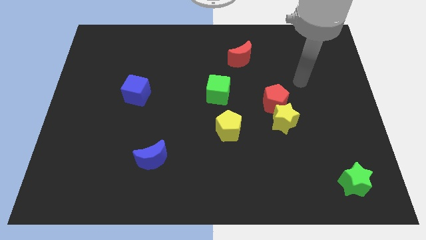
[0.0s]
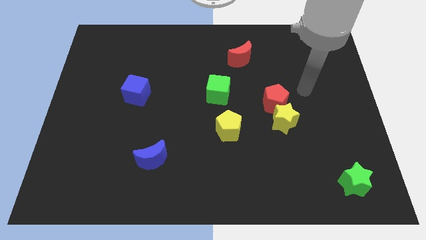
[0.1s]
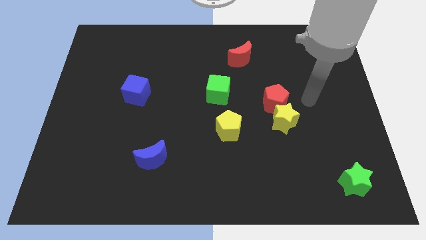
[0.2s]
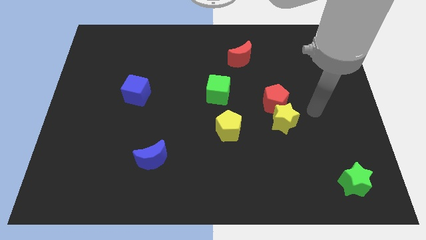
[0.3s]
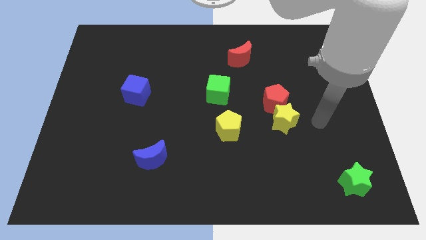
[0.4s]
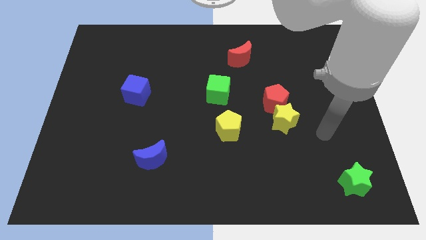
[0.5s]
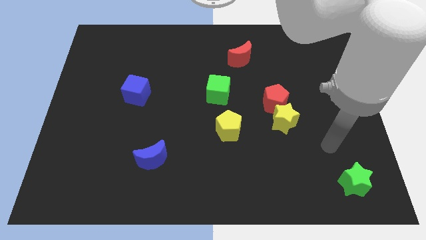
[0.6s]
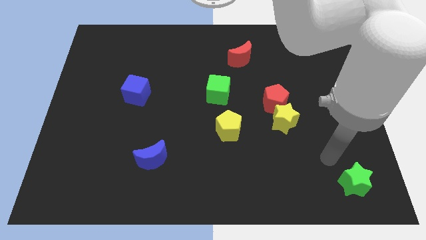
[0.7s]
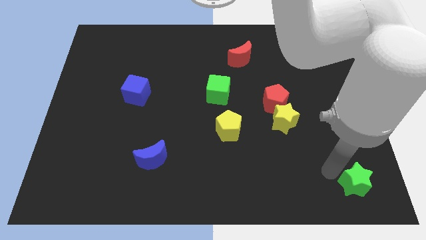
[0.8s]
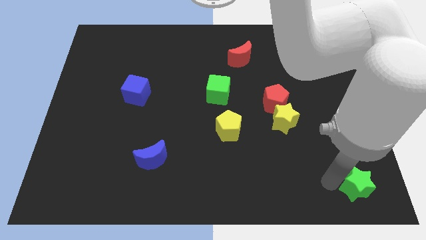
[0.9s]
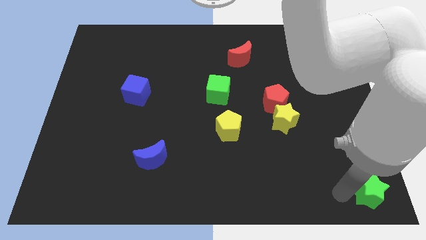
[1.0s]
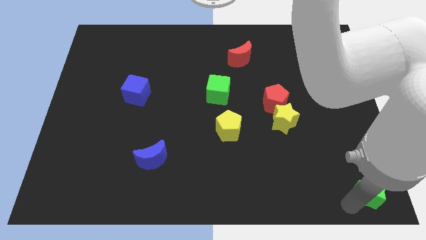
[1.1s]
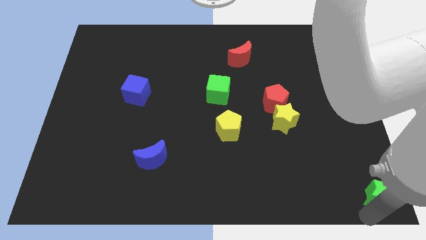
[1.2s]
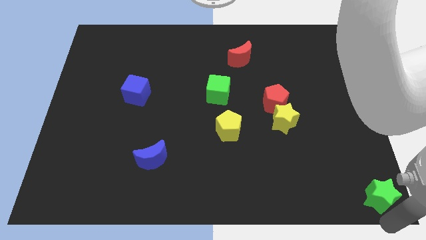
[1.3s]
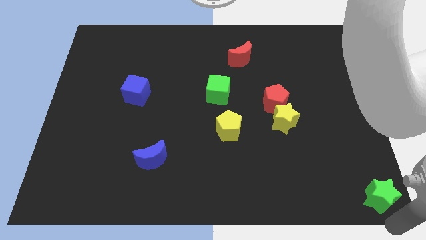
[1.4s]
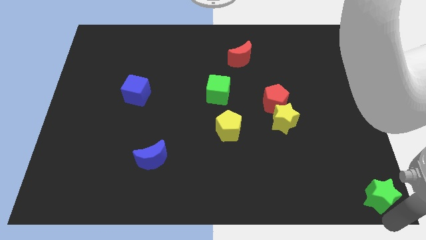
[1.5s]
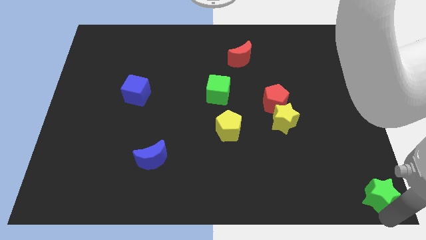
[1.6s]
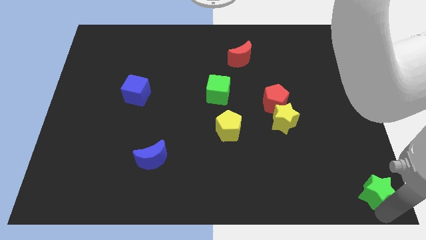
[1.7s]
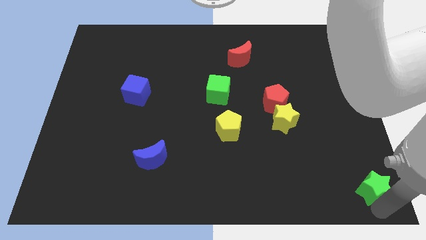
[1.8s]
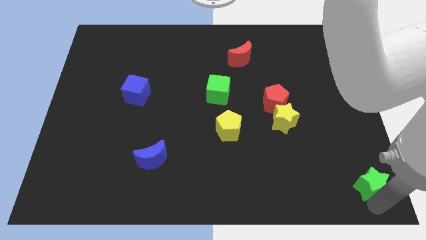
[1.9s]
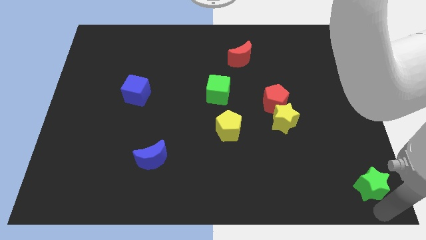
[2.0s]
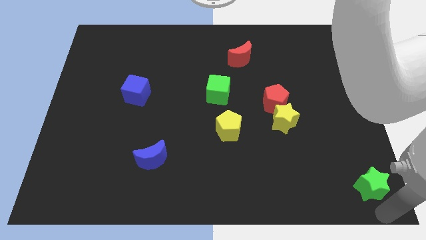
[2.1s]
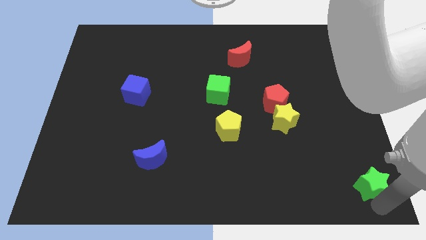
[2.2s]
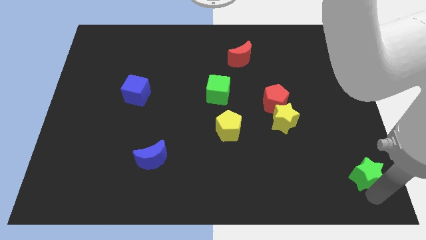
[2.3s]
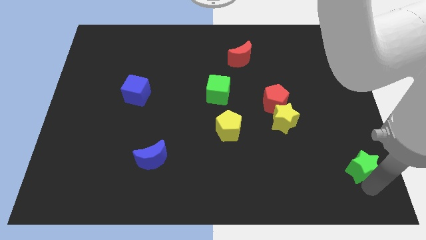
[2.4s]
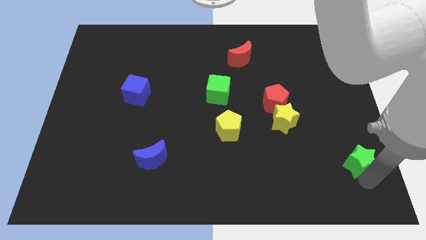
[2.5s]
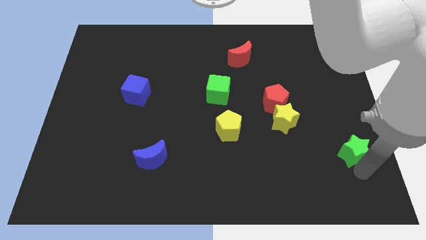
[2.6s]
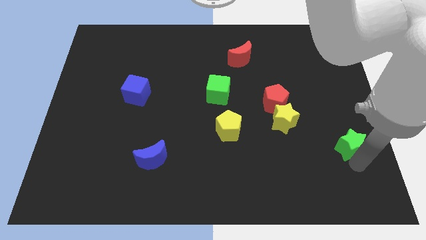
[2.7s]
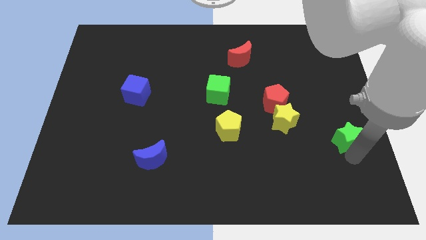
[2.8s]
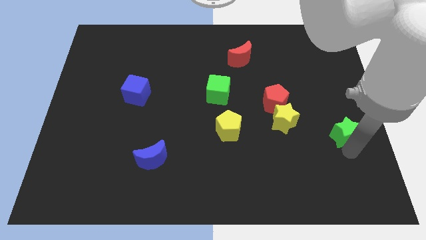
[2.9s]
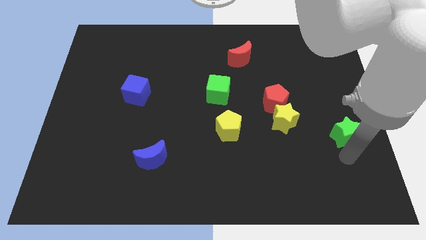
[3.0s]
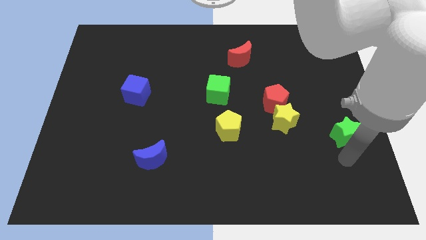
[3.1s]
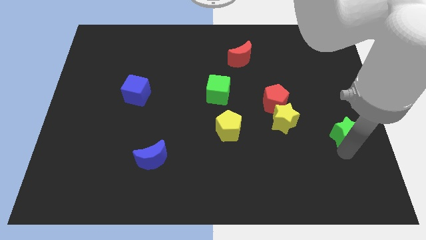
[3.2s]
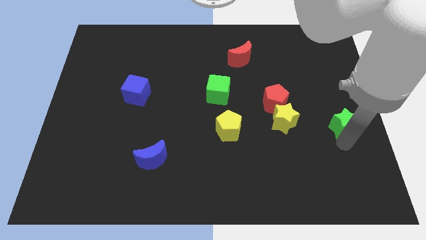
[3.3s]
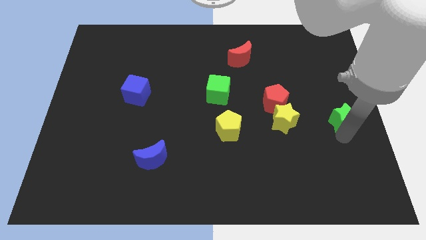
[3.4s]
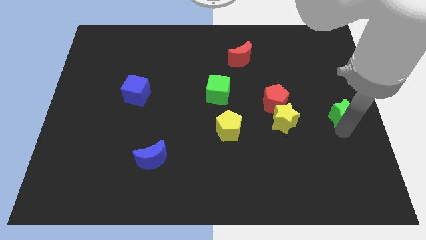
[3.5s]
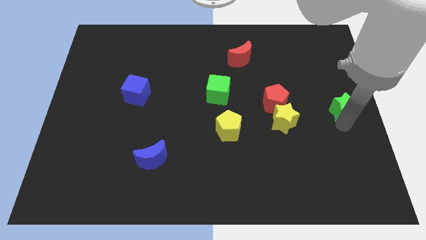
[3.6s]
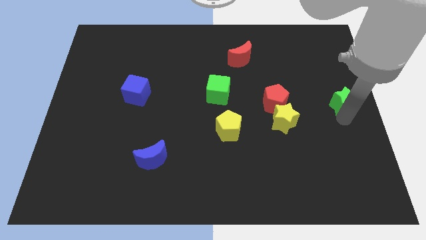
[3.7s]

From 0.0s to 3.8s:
slide the green star upwards

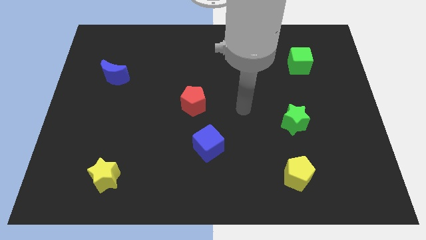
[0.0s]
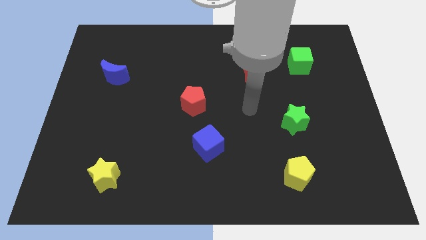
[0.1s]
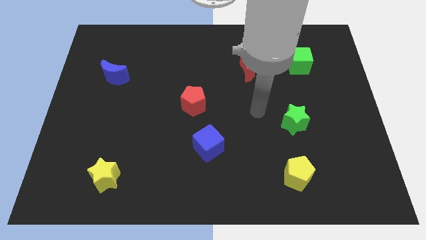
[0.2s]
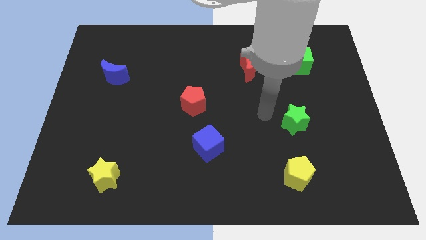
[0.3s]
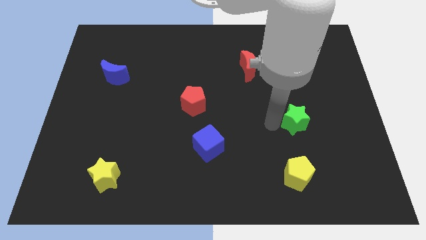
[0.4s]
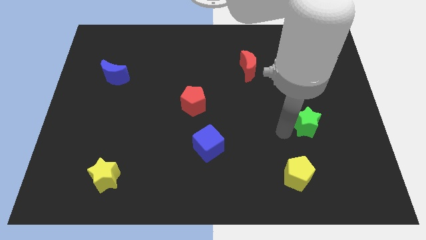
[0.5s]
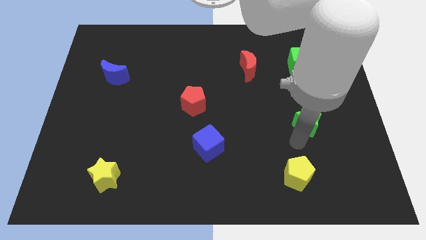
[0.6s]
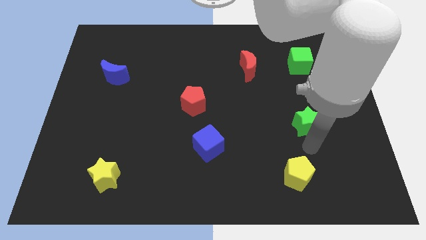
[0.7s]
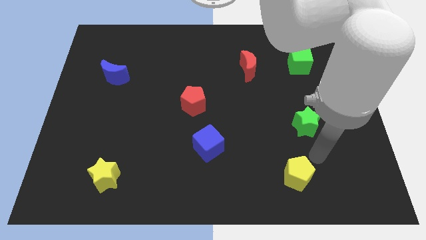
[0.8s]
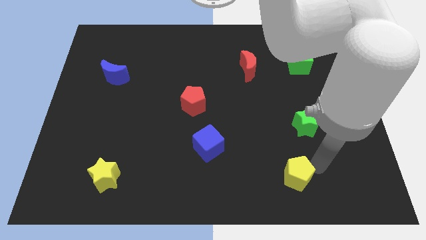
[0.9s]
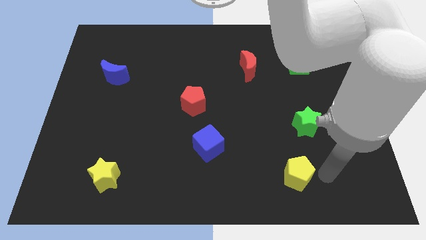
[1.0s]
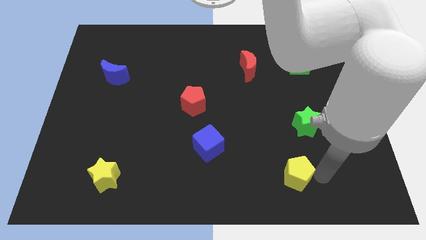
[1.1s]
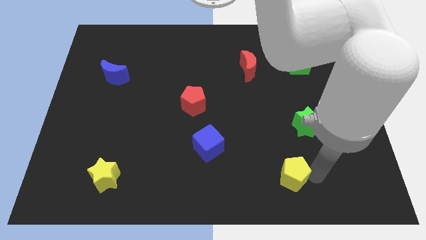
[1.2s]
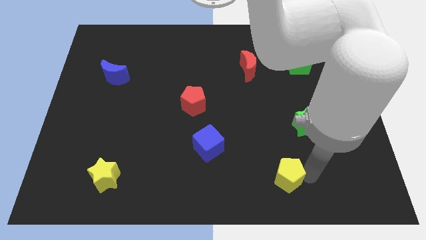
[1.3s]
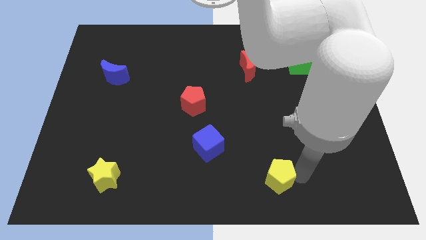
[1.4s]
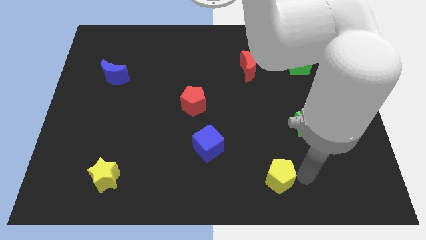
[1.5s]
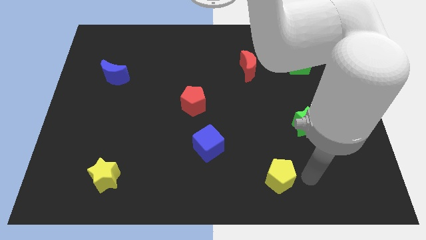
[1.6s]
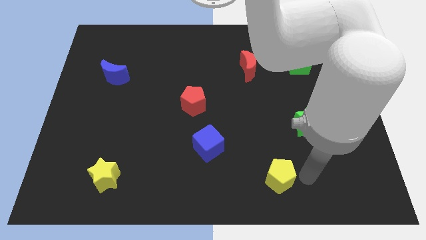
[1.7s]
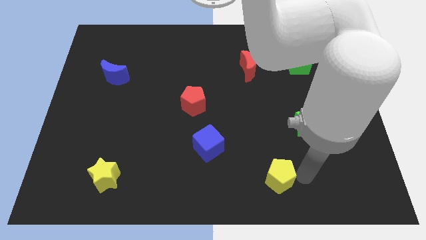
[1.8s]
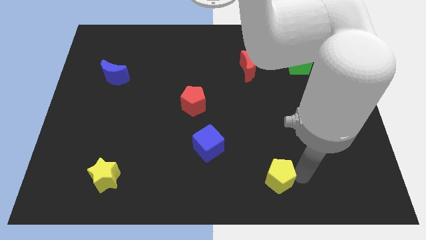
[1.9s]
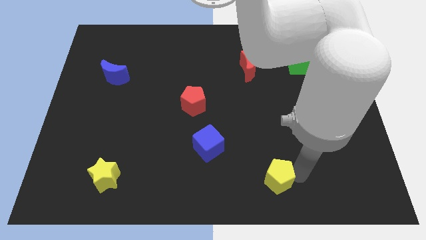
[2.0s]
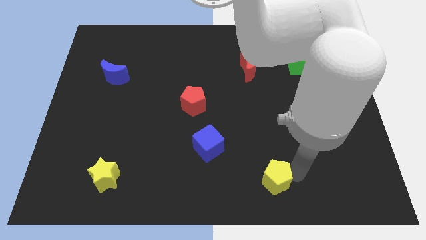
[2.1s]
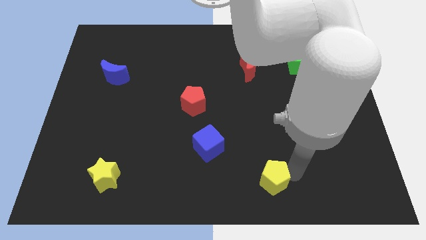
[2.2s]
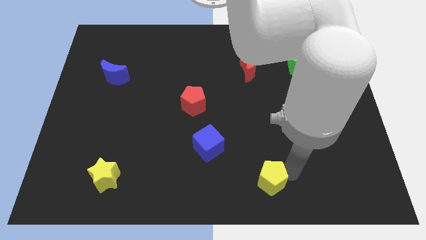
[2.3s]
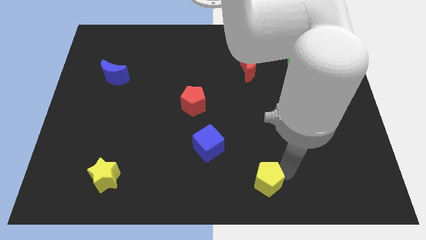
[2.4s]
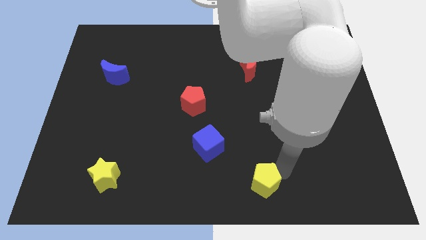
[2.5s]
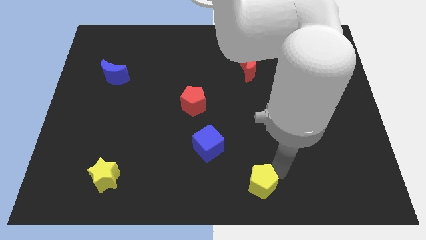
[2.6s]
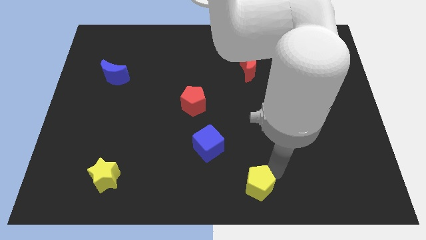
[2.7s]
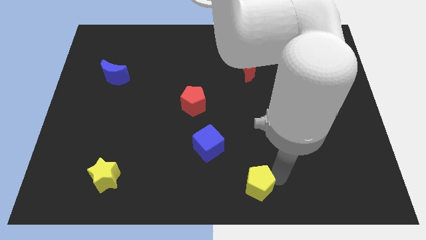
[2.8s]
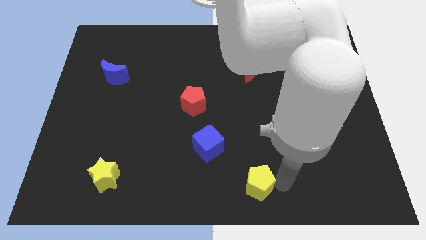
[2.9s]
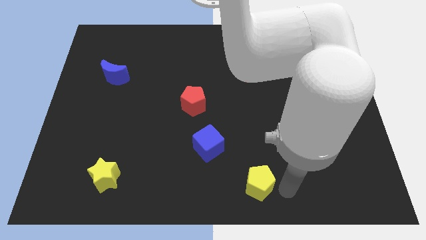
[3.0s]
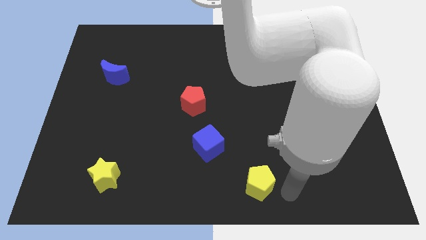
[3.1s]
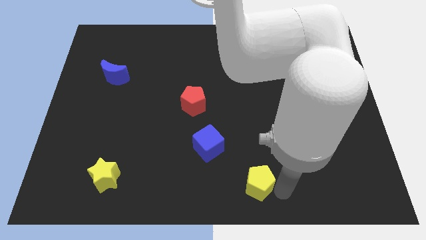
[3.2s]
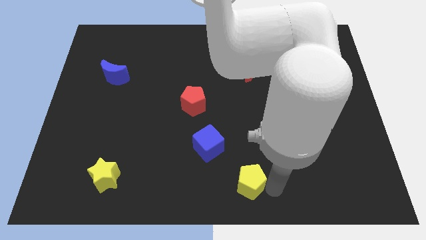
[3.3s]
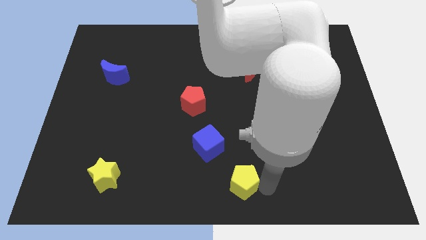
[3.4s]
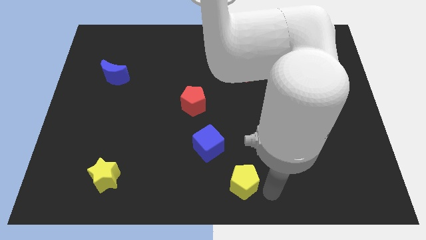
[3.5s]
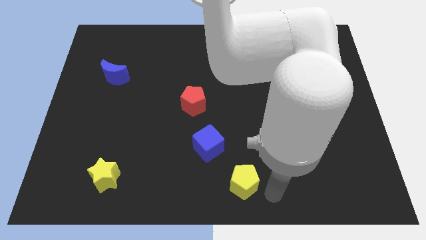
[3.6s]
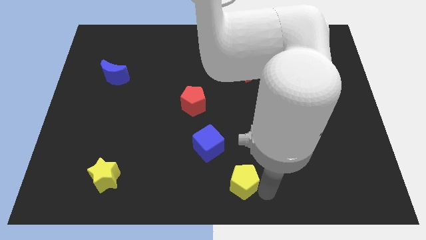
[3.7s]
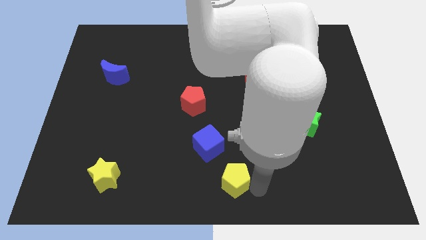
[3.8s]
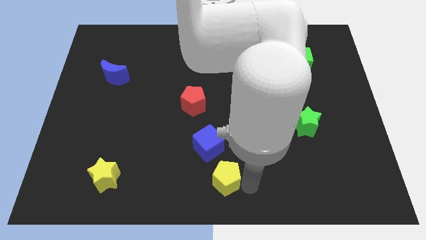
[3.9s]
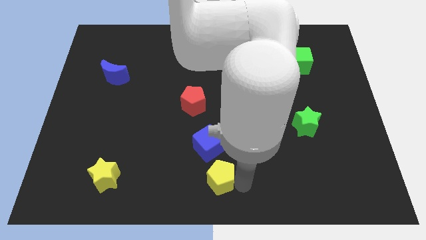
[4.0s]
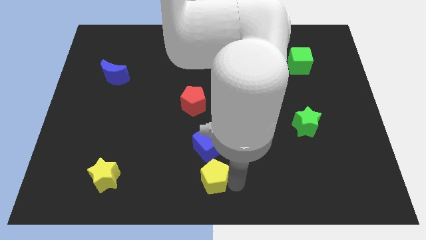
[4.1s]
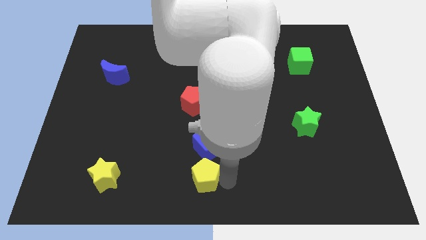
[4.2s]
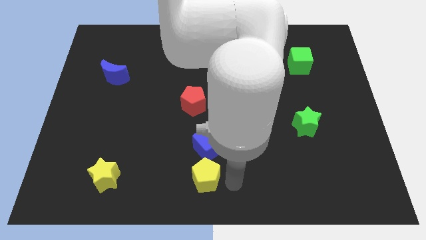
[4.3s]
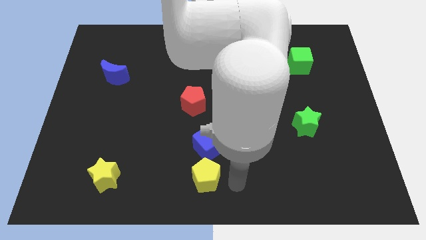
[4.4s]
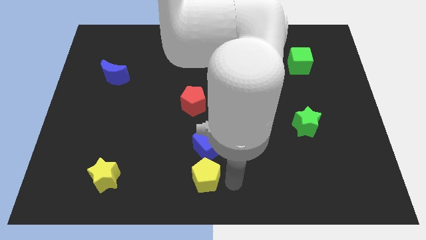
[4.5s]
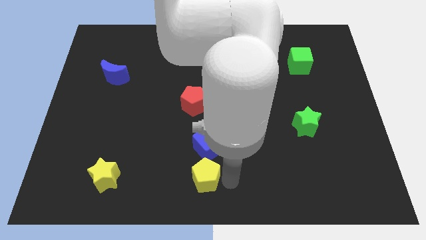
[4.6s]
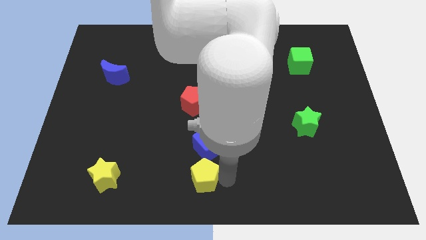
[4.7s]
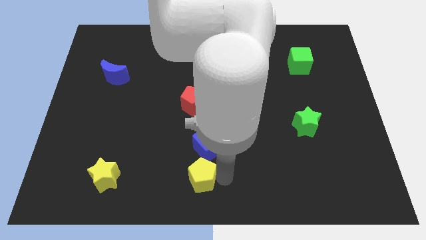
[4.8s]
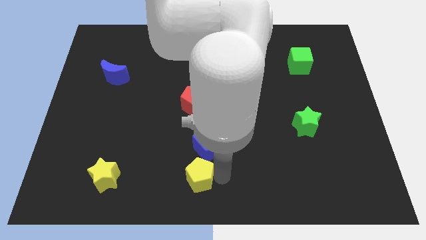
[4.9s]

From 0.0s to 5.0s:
move the yellow pentagon to the left
